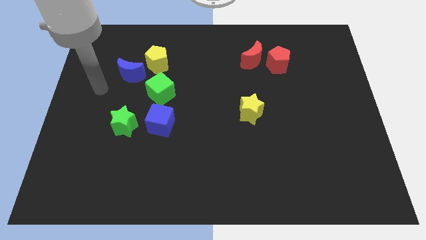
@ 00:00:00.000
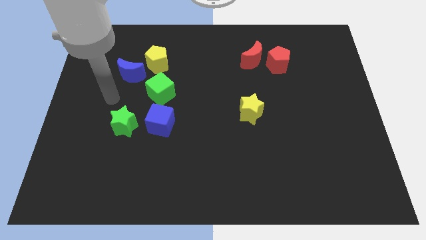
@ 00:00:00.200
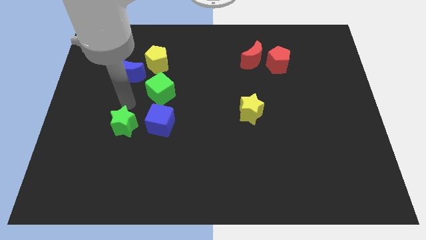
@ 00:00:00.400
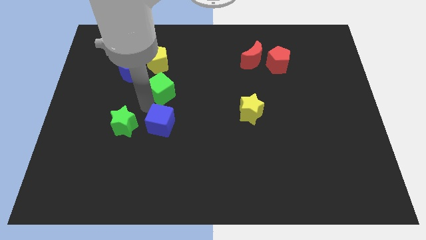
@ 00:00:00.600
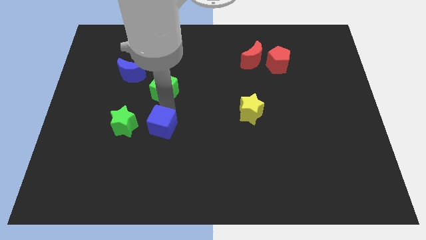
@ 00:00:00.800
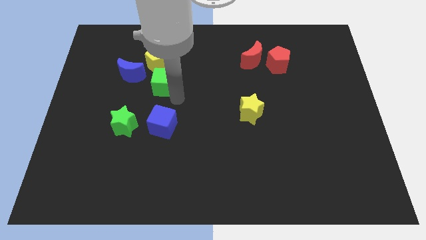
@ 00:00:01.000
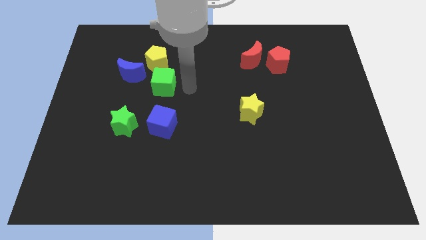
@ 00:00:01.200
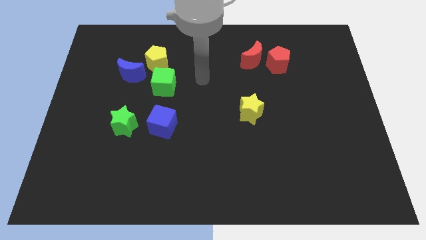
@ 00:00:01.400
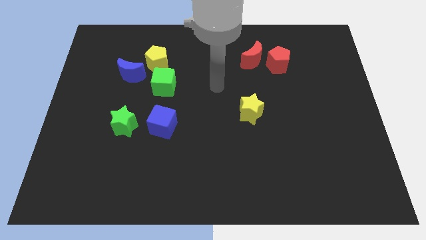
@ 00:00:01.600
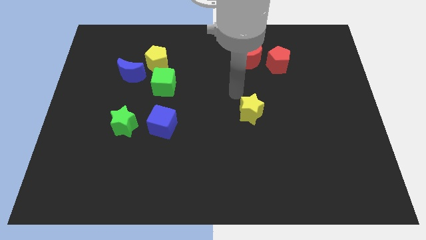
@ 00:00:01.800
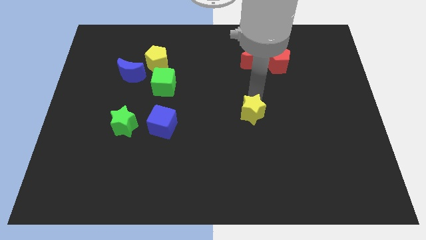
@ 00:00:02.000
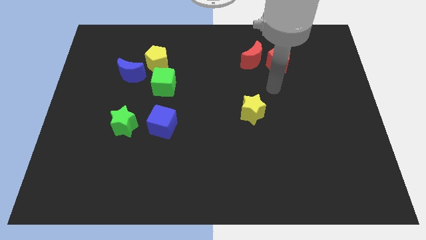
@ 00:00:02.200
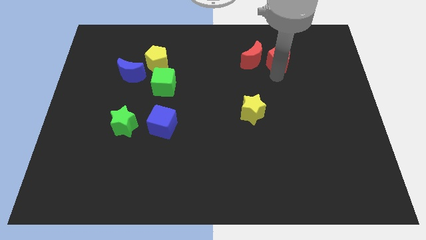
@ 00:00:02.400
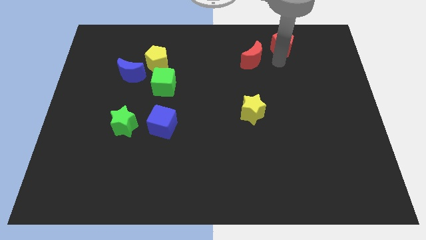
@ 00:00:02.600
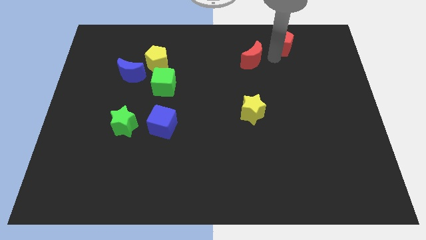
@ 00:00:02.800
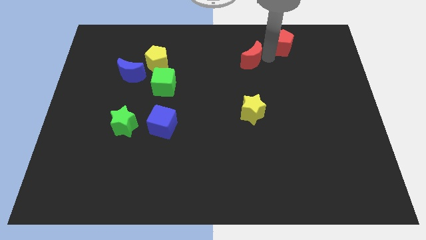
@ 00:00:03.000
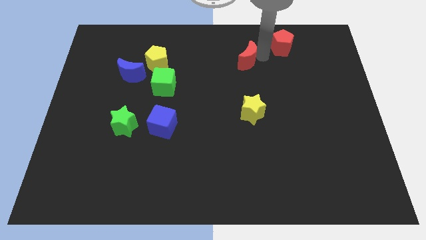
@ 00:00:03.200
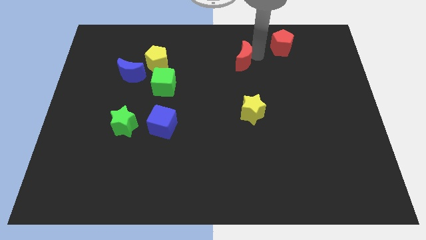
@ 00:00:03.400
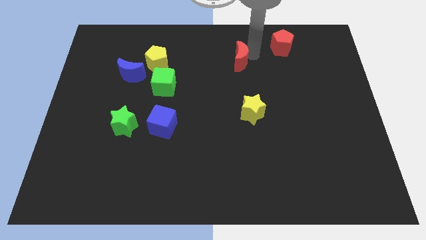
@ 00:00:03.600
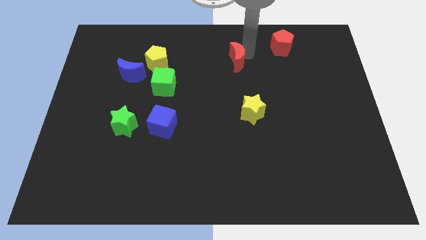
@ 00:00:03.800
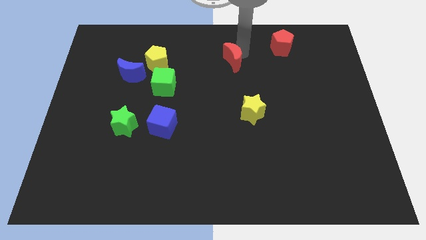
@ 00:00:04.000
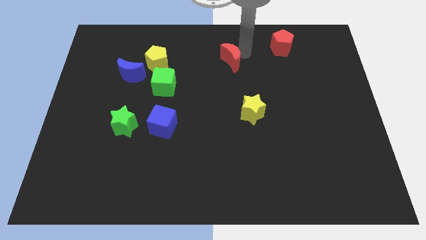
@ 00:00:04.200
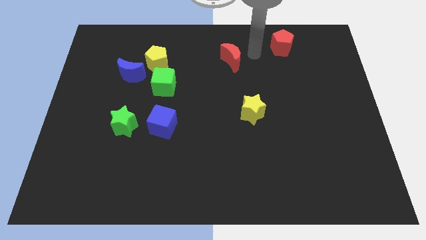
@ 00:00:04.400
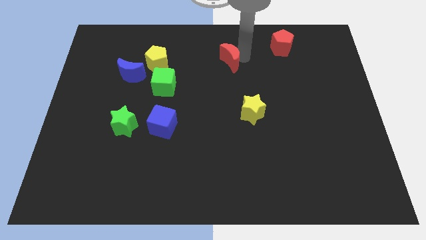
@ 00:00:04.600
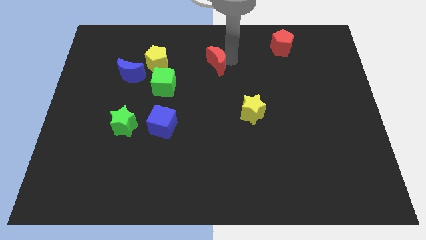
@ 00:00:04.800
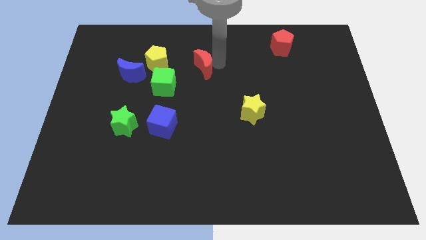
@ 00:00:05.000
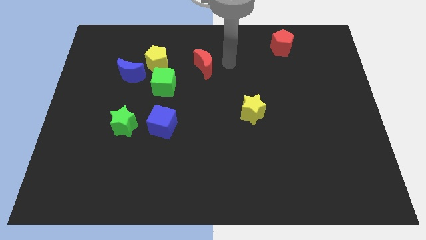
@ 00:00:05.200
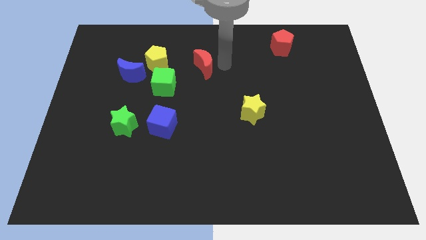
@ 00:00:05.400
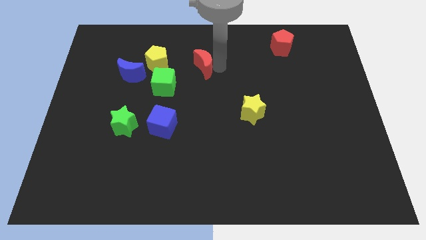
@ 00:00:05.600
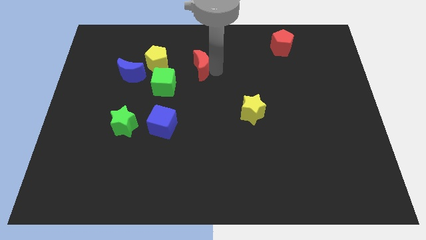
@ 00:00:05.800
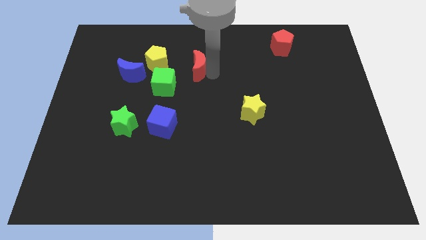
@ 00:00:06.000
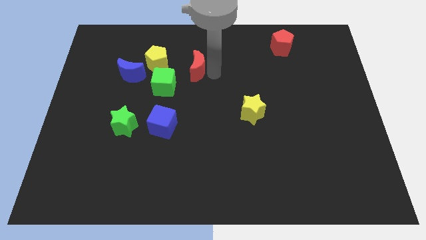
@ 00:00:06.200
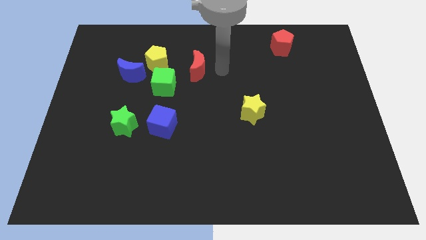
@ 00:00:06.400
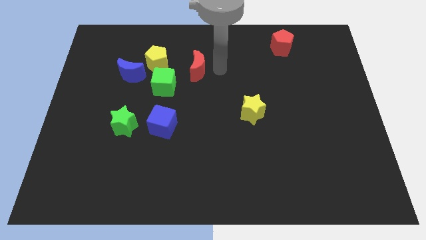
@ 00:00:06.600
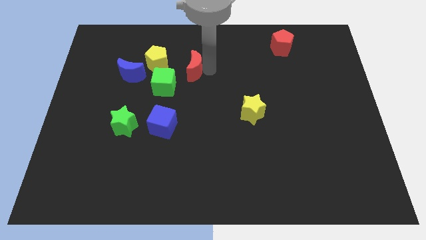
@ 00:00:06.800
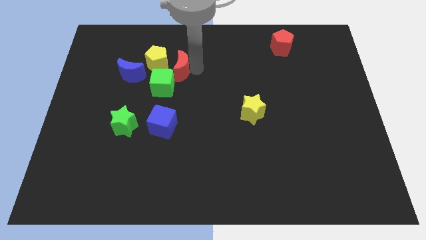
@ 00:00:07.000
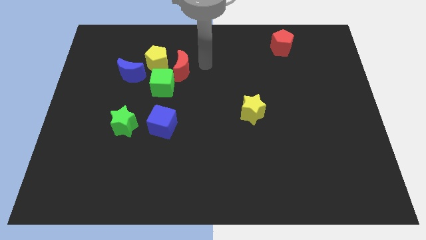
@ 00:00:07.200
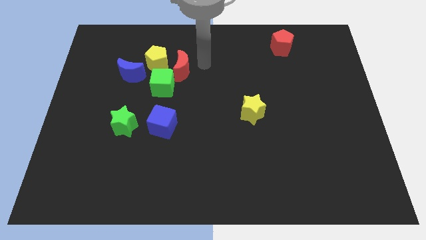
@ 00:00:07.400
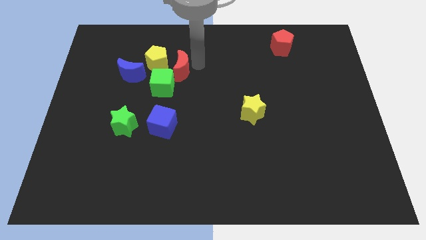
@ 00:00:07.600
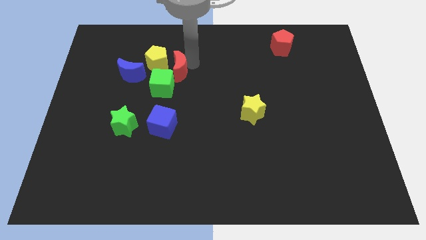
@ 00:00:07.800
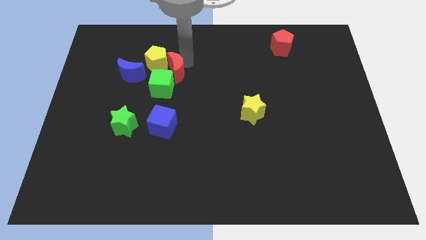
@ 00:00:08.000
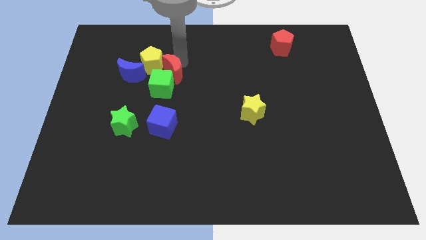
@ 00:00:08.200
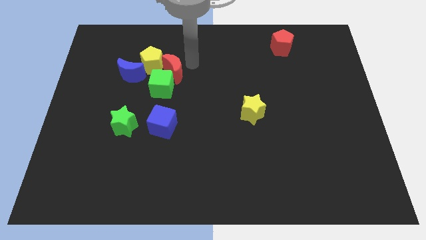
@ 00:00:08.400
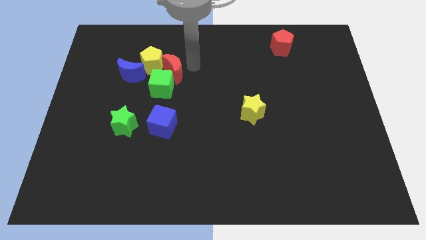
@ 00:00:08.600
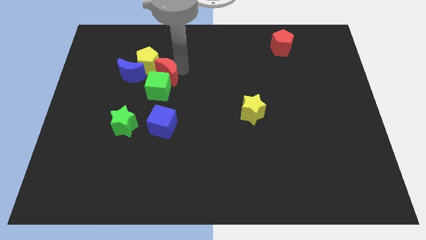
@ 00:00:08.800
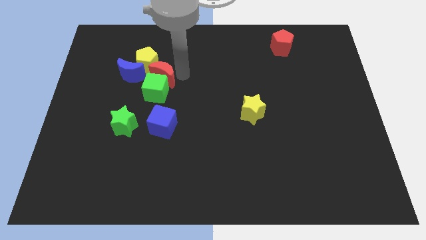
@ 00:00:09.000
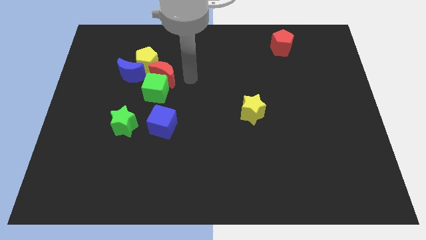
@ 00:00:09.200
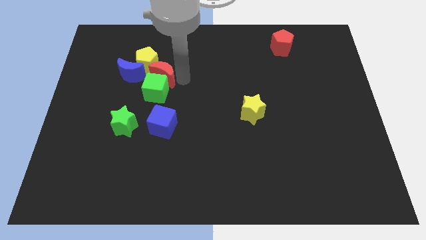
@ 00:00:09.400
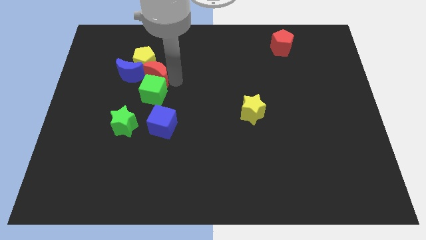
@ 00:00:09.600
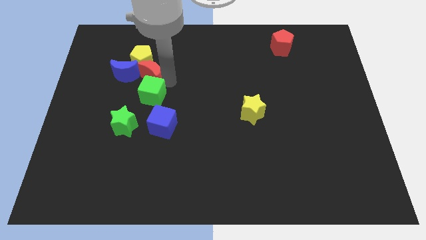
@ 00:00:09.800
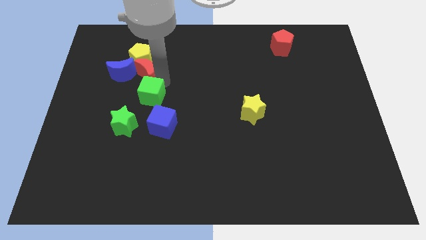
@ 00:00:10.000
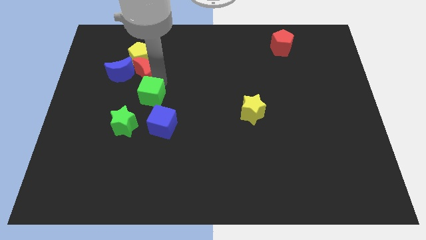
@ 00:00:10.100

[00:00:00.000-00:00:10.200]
slide the red moon to the blue moon

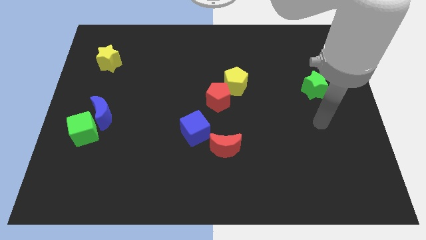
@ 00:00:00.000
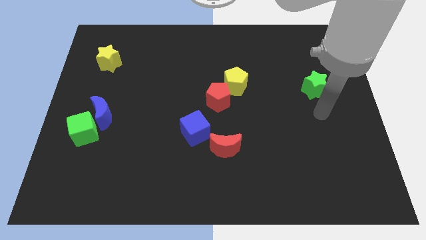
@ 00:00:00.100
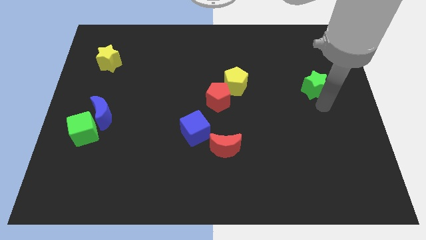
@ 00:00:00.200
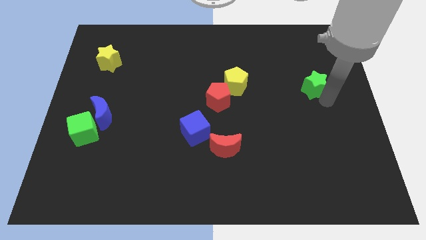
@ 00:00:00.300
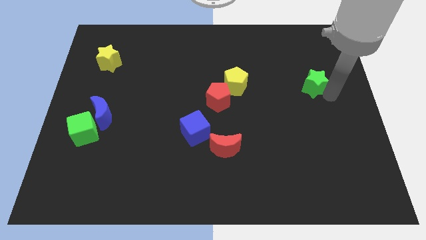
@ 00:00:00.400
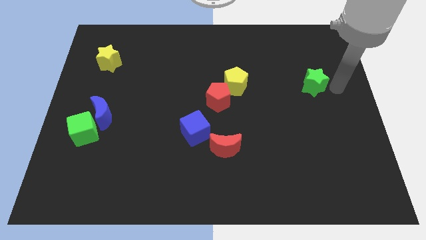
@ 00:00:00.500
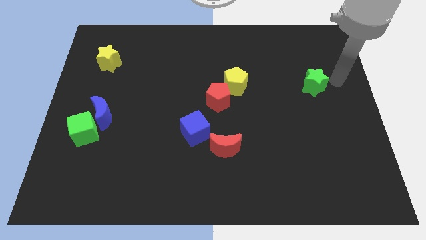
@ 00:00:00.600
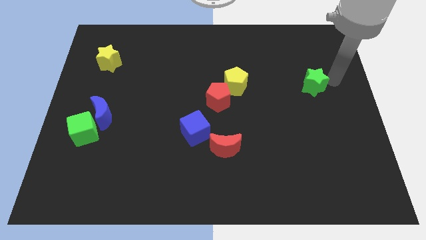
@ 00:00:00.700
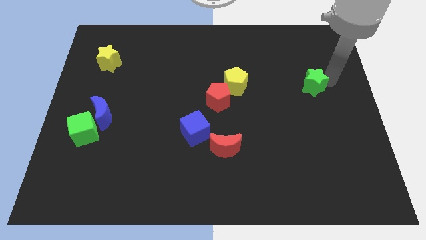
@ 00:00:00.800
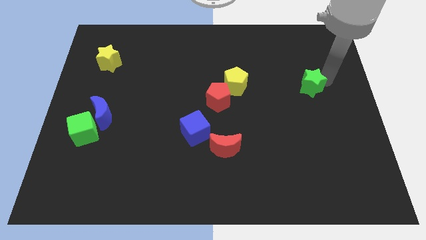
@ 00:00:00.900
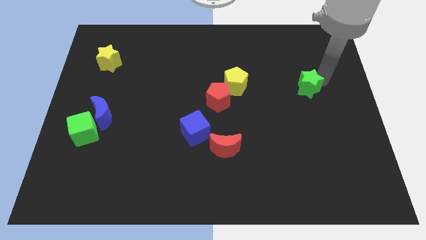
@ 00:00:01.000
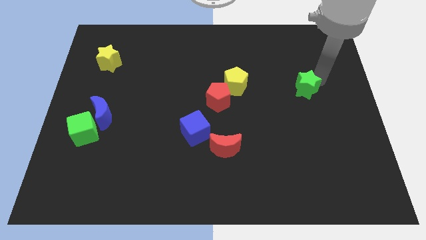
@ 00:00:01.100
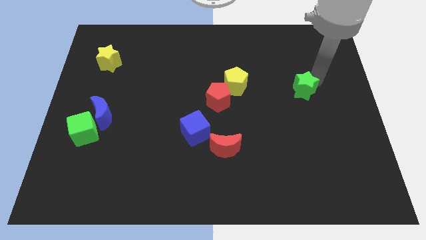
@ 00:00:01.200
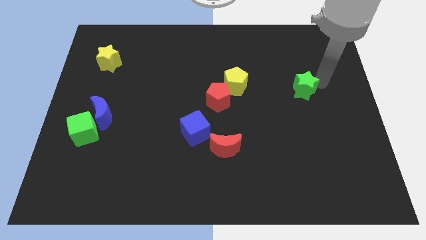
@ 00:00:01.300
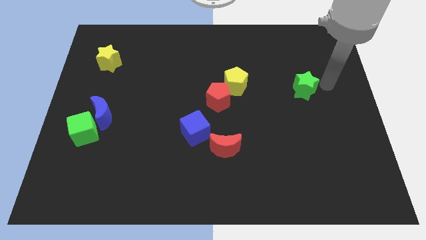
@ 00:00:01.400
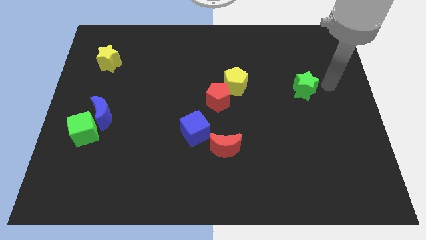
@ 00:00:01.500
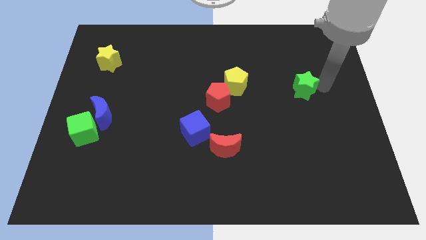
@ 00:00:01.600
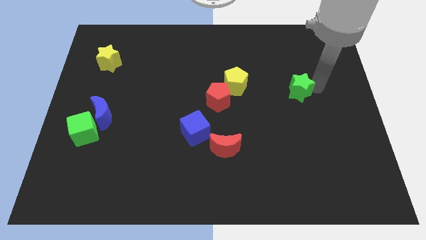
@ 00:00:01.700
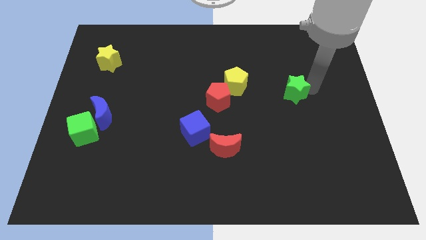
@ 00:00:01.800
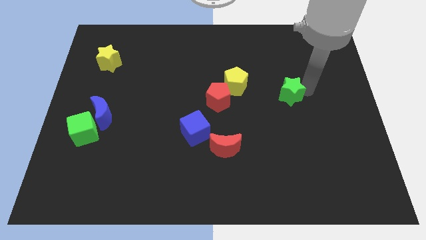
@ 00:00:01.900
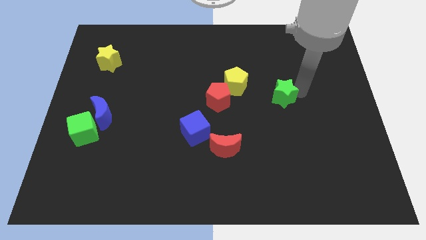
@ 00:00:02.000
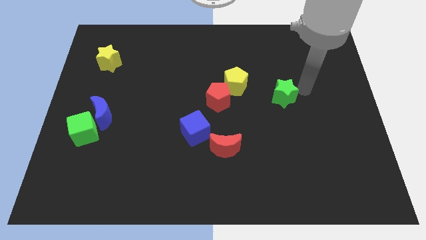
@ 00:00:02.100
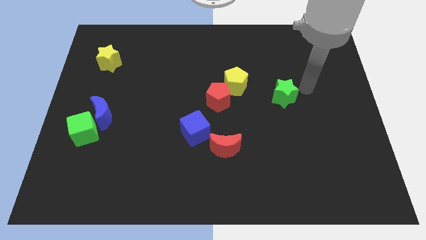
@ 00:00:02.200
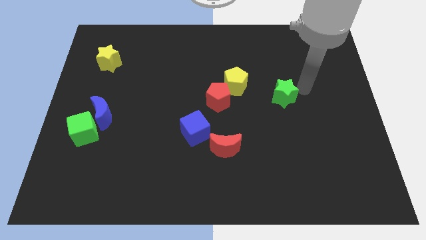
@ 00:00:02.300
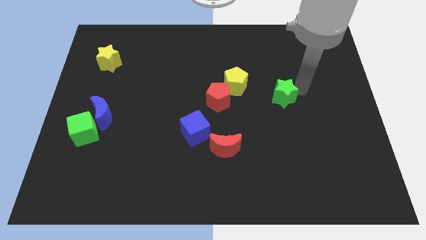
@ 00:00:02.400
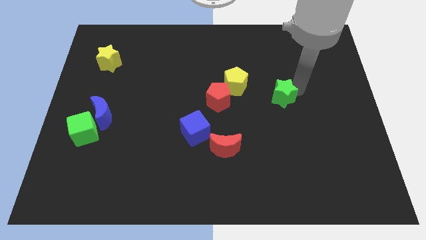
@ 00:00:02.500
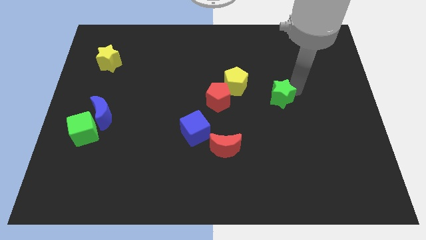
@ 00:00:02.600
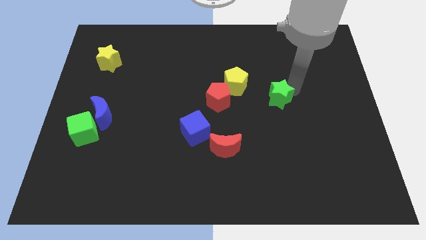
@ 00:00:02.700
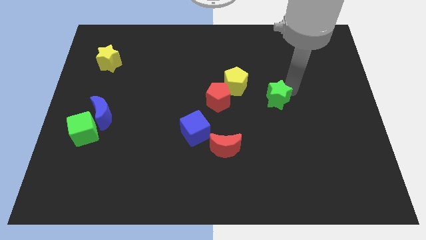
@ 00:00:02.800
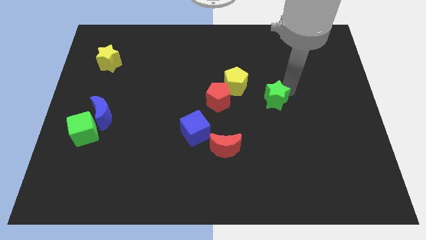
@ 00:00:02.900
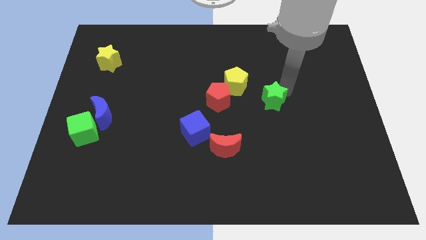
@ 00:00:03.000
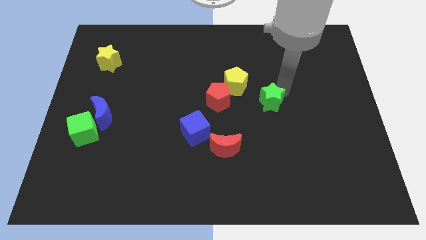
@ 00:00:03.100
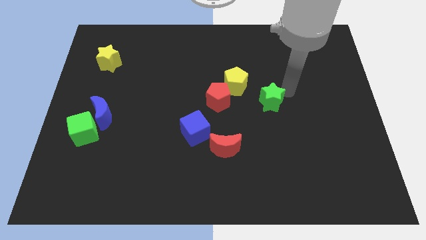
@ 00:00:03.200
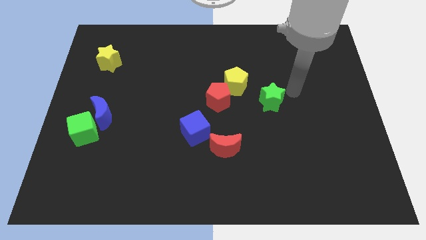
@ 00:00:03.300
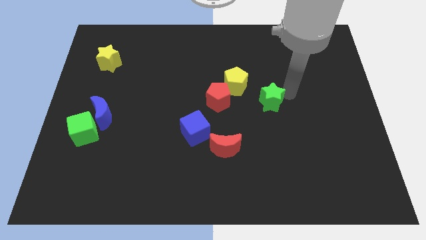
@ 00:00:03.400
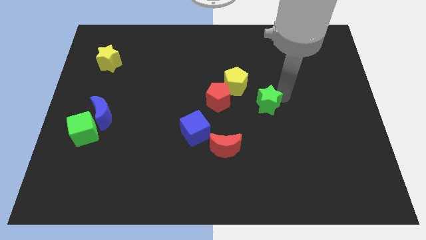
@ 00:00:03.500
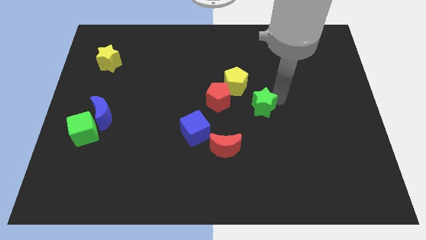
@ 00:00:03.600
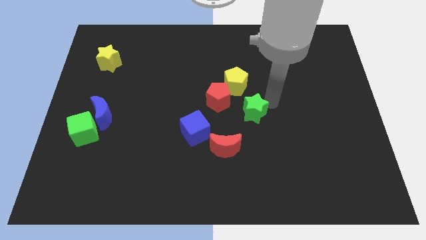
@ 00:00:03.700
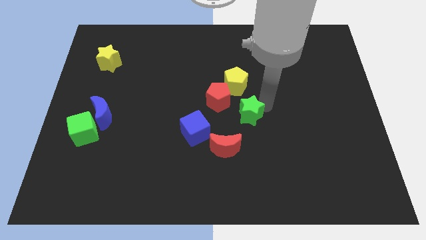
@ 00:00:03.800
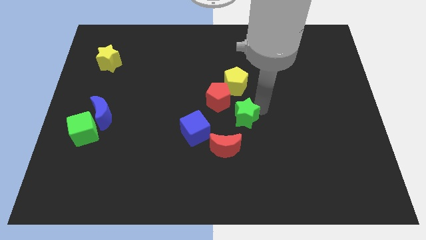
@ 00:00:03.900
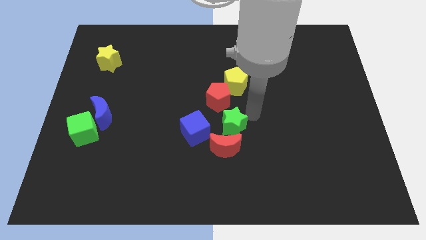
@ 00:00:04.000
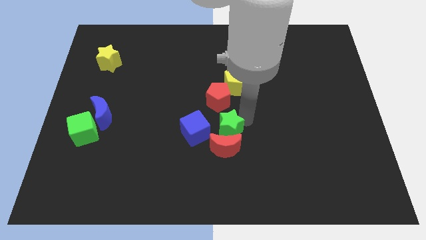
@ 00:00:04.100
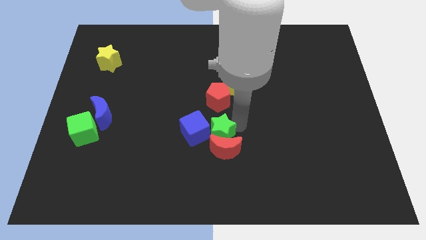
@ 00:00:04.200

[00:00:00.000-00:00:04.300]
move the green star to the blue cube
